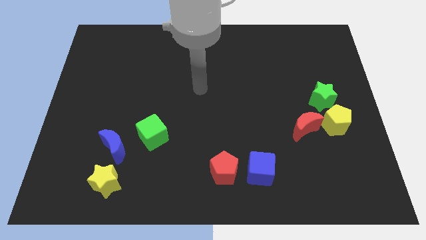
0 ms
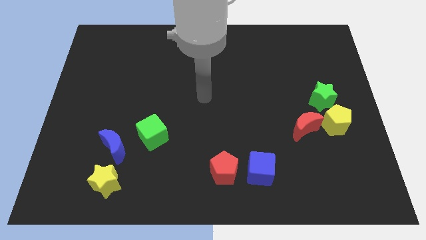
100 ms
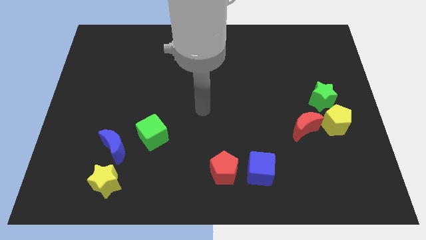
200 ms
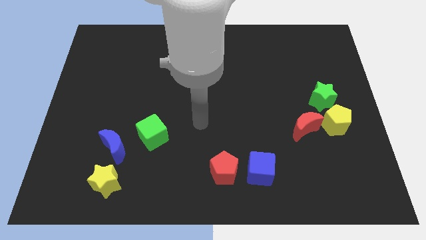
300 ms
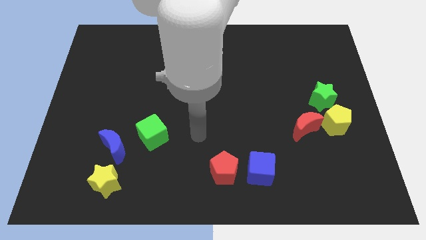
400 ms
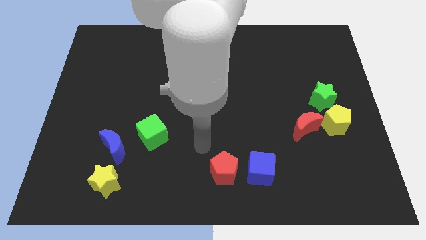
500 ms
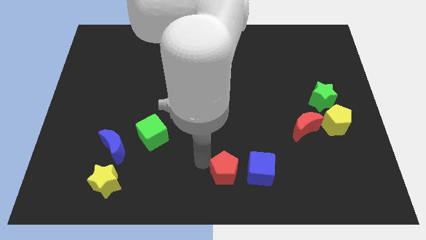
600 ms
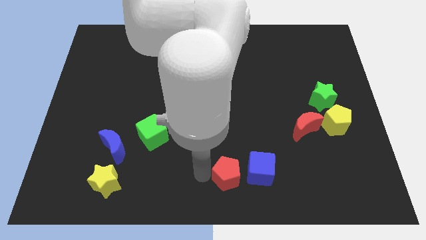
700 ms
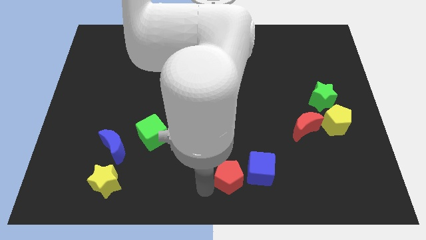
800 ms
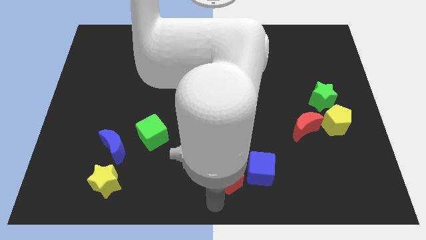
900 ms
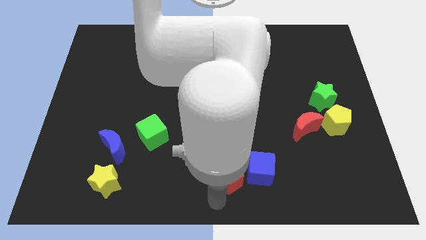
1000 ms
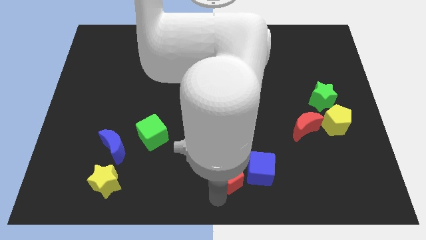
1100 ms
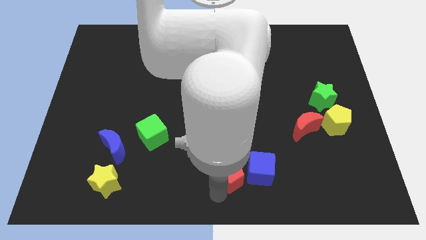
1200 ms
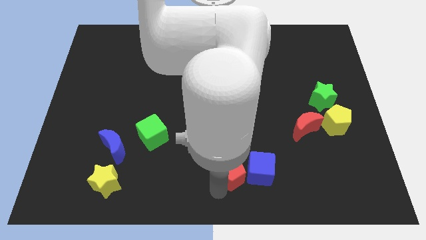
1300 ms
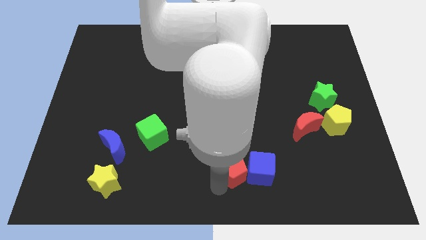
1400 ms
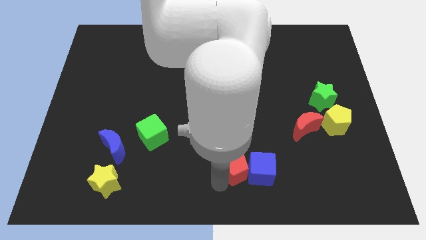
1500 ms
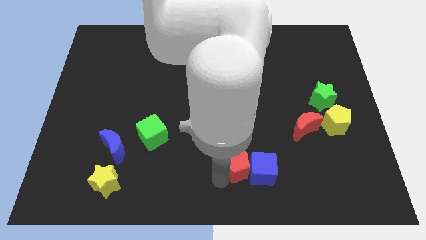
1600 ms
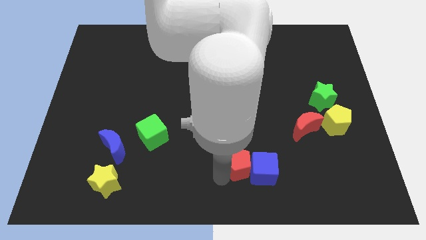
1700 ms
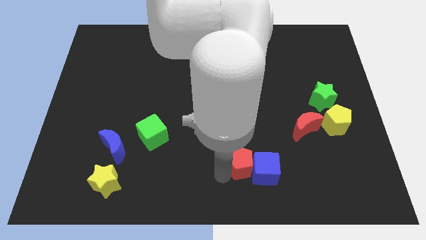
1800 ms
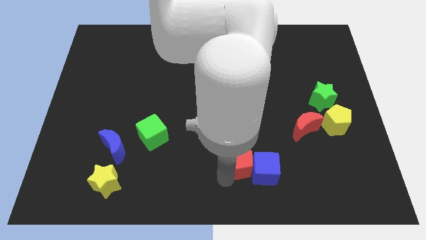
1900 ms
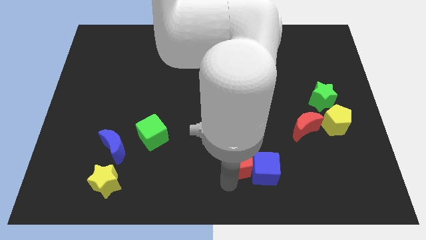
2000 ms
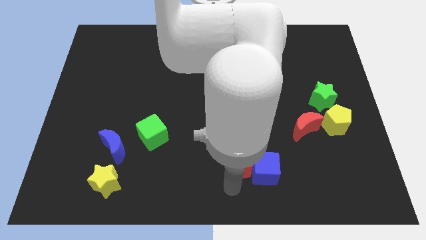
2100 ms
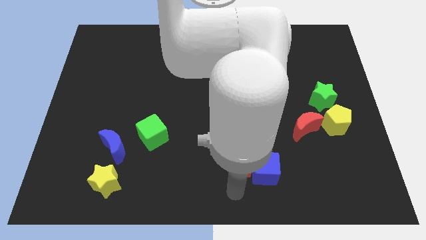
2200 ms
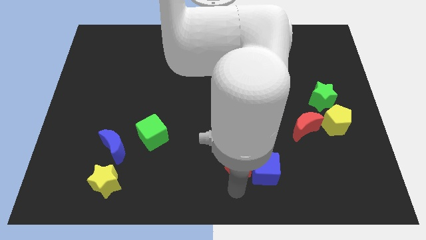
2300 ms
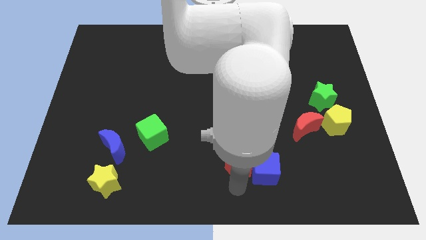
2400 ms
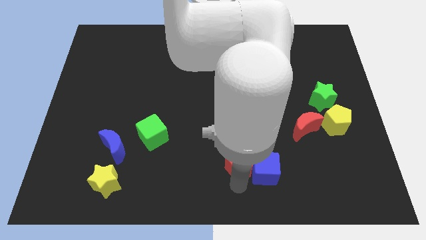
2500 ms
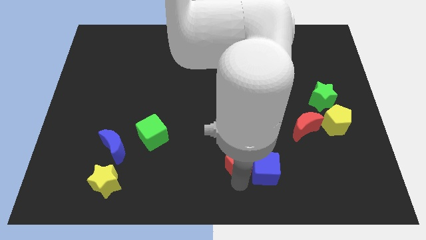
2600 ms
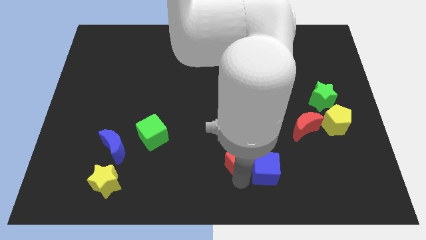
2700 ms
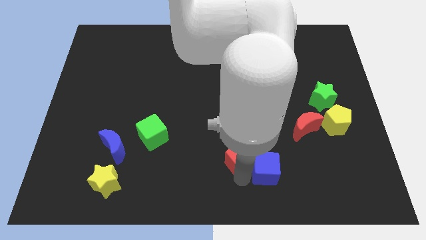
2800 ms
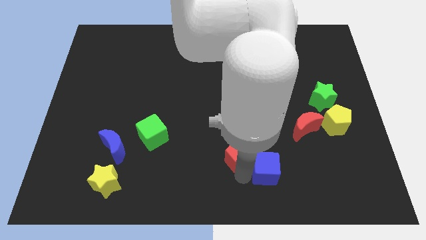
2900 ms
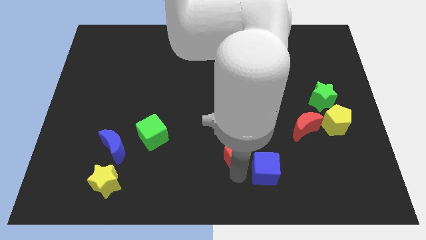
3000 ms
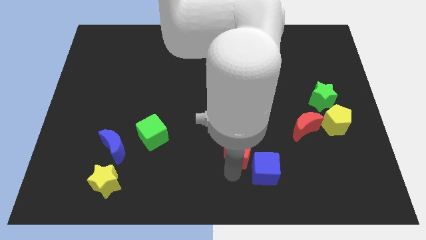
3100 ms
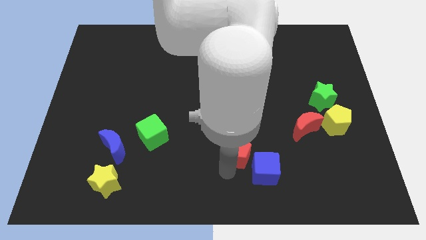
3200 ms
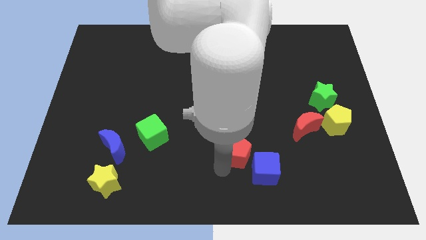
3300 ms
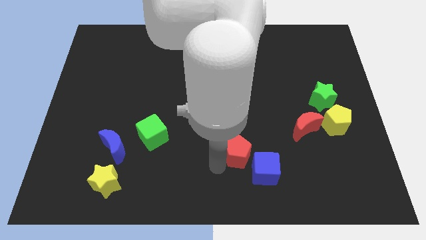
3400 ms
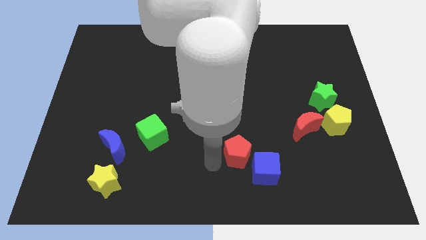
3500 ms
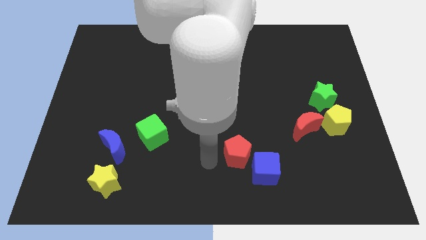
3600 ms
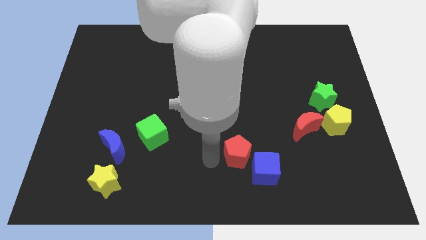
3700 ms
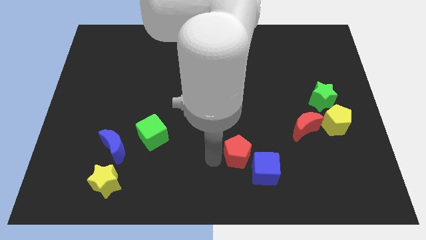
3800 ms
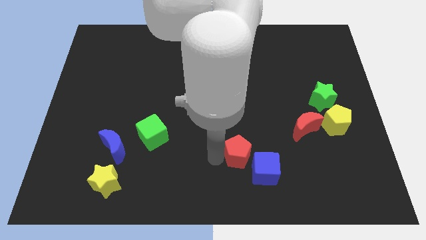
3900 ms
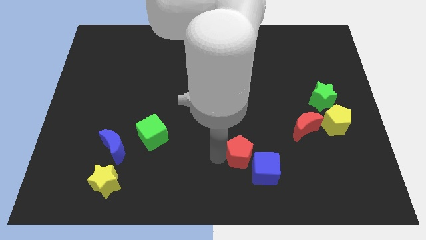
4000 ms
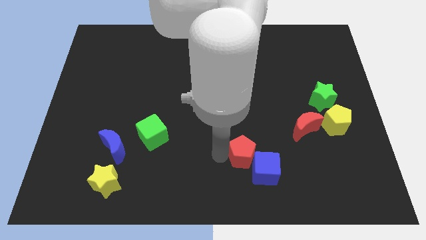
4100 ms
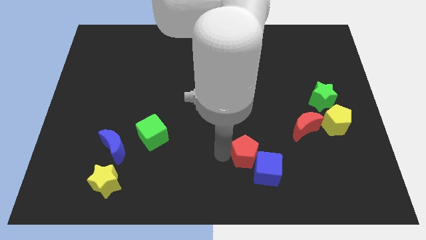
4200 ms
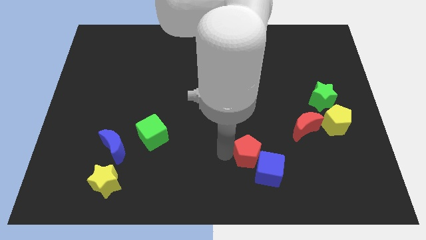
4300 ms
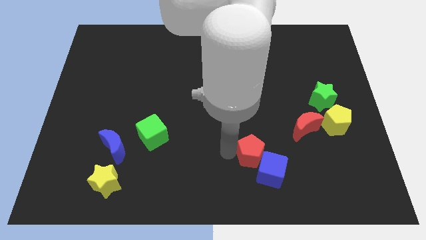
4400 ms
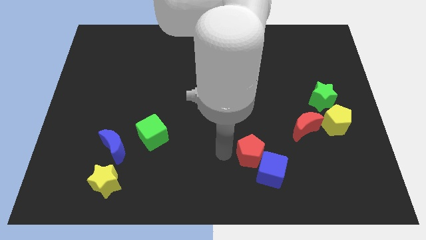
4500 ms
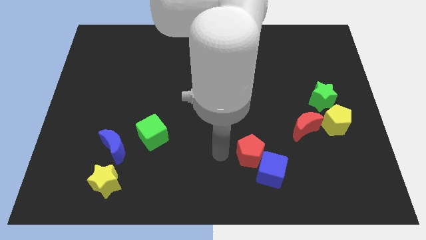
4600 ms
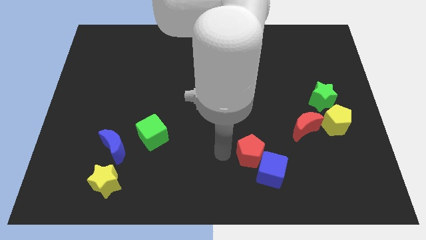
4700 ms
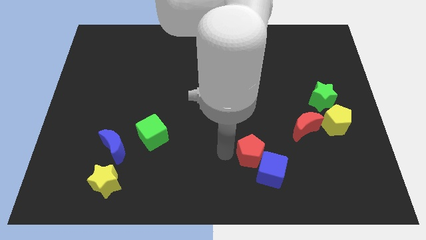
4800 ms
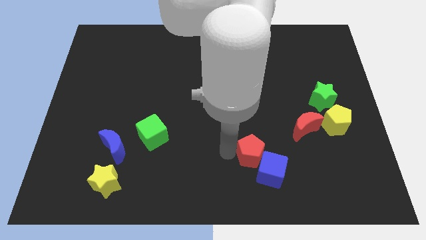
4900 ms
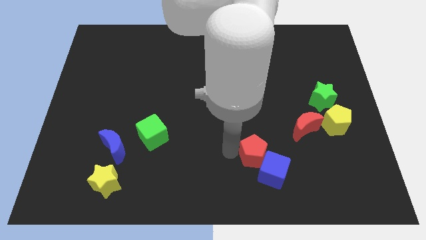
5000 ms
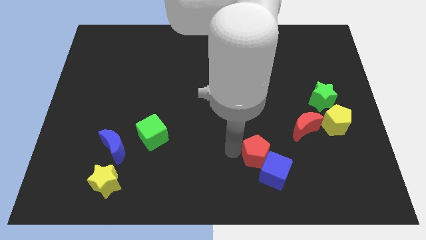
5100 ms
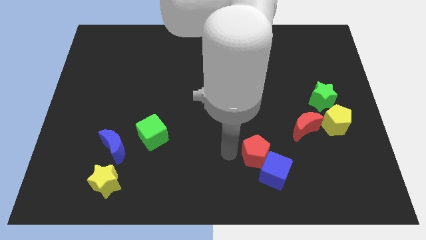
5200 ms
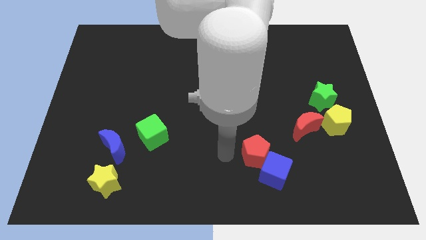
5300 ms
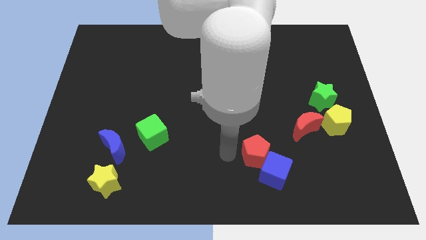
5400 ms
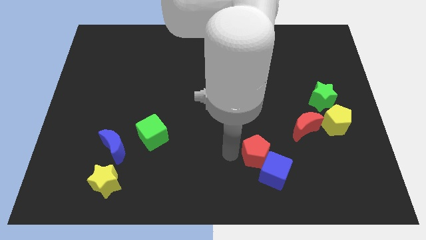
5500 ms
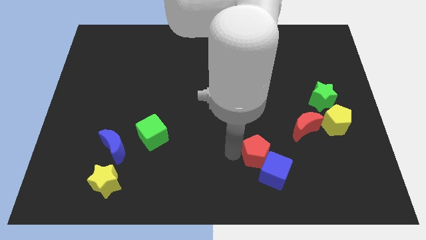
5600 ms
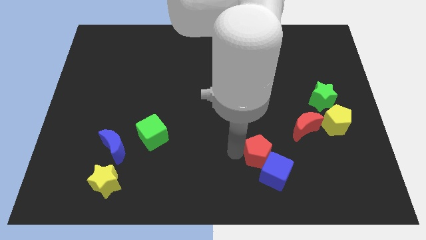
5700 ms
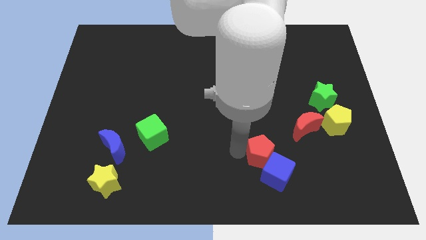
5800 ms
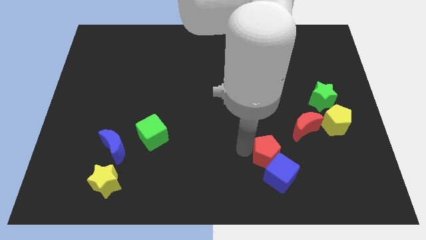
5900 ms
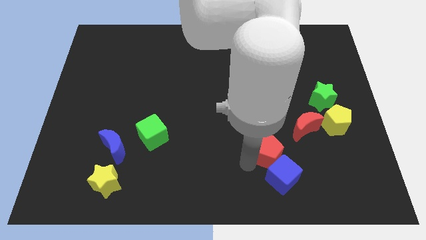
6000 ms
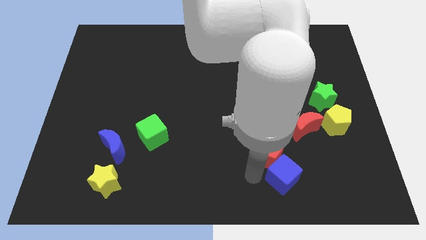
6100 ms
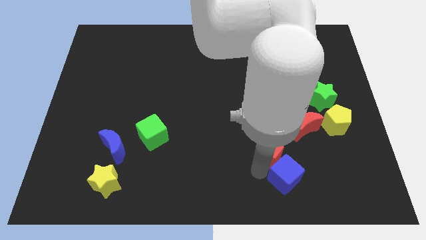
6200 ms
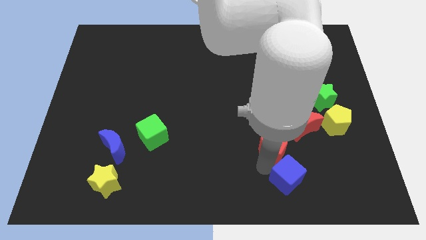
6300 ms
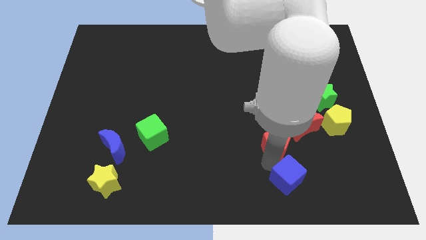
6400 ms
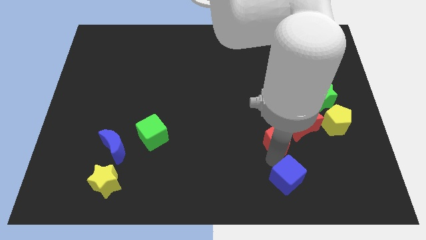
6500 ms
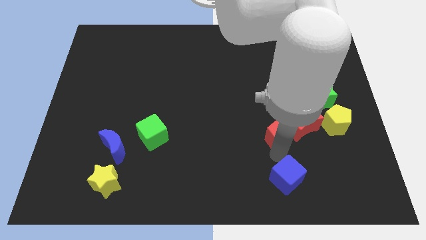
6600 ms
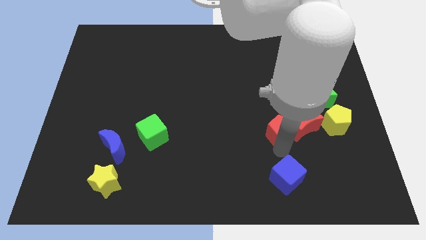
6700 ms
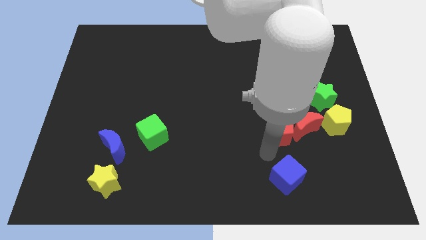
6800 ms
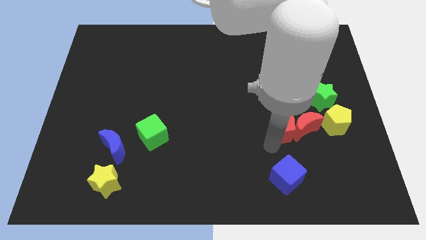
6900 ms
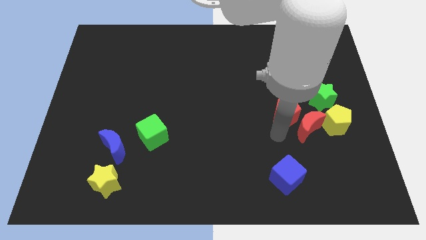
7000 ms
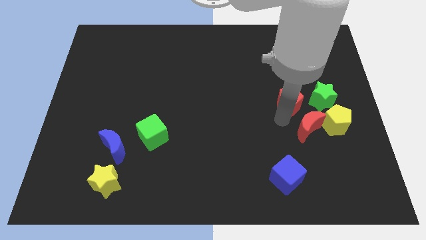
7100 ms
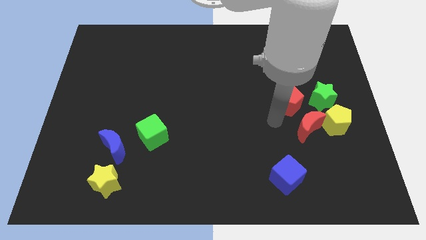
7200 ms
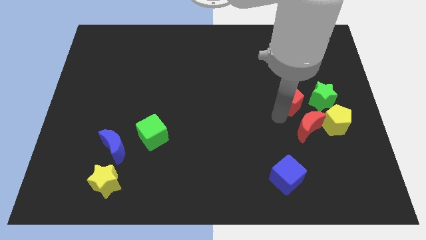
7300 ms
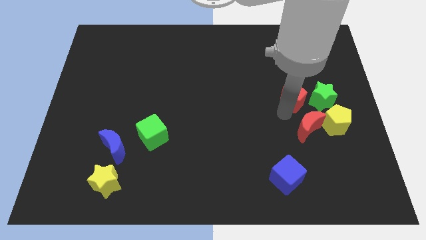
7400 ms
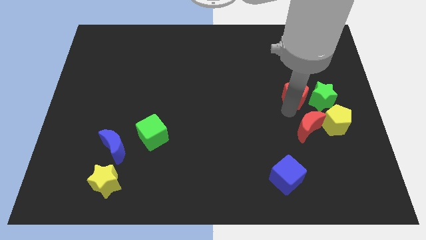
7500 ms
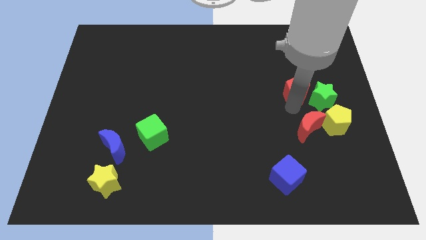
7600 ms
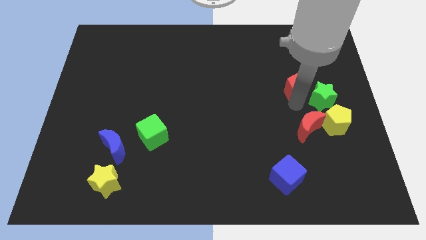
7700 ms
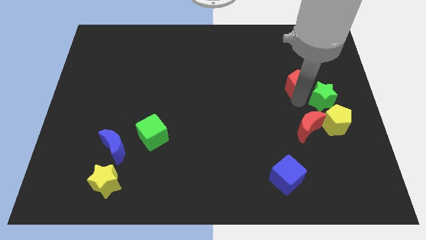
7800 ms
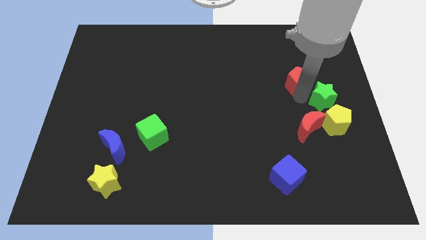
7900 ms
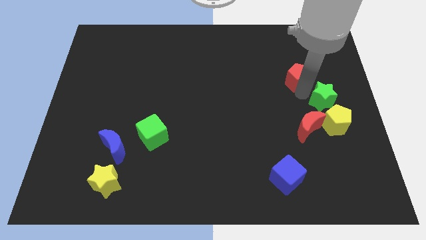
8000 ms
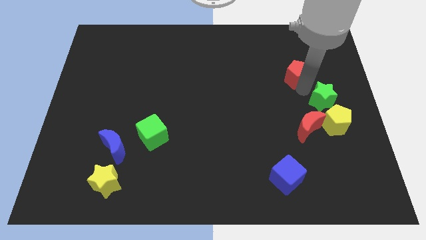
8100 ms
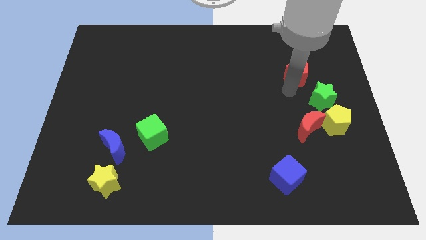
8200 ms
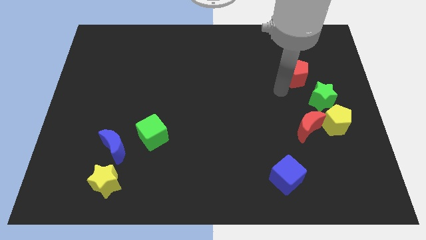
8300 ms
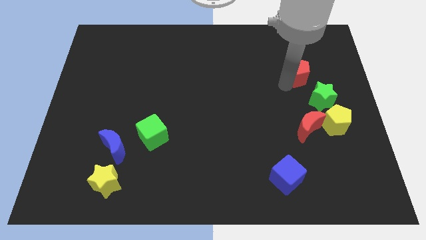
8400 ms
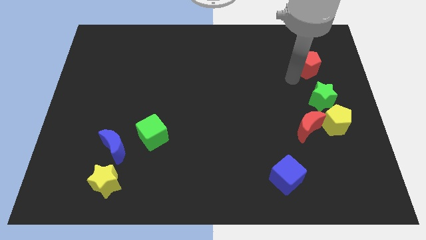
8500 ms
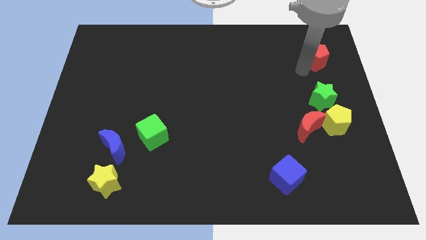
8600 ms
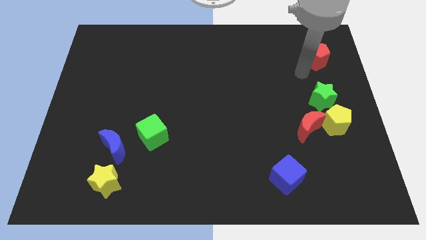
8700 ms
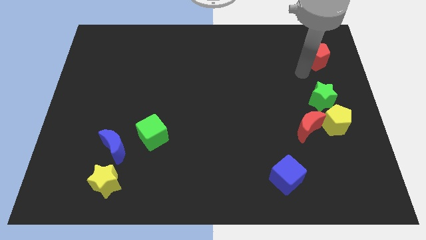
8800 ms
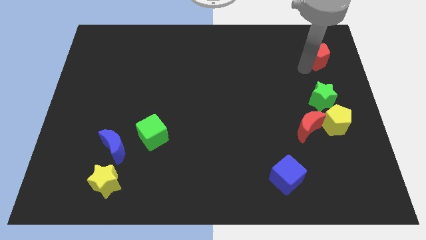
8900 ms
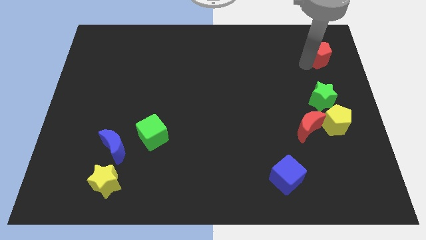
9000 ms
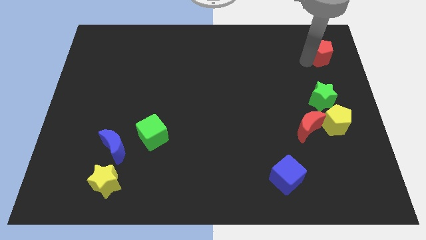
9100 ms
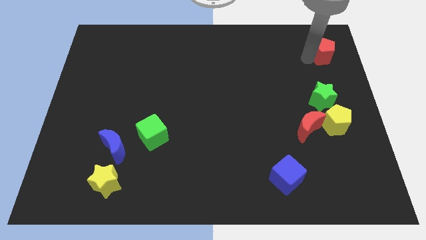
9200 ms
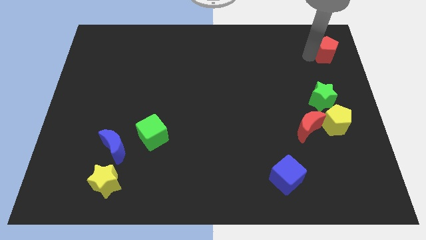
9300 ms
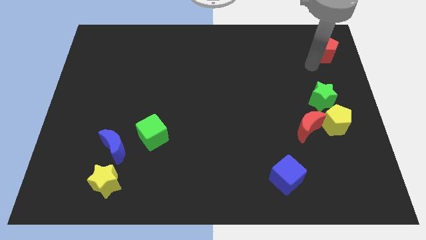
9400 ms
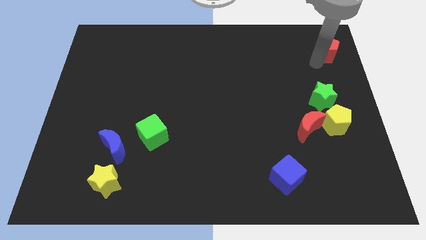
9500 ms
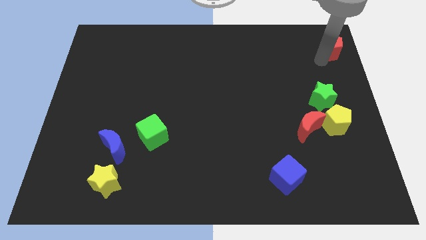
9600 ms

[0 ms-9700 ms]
move the red pentagon to the top right corner
